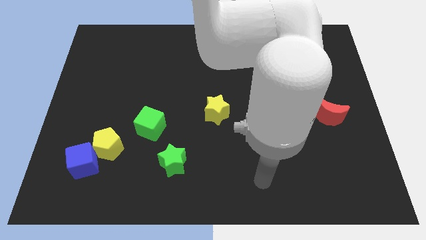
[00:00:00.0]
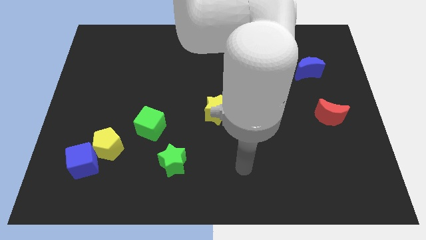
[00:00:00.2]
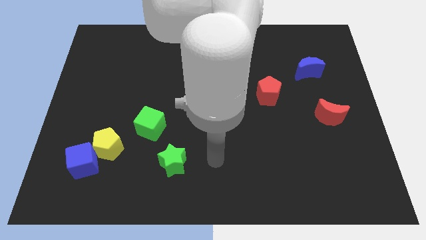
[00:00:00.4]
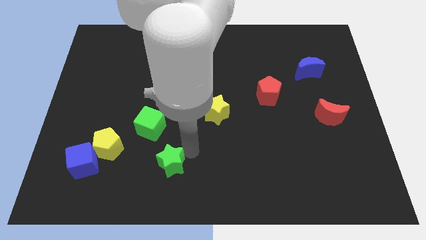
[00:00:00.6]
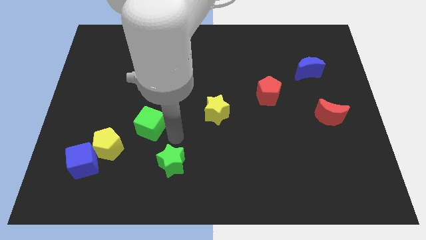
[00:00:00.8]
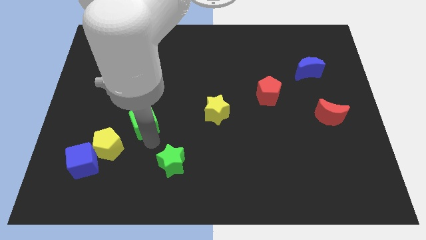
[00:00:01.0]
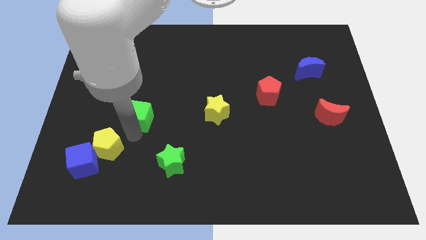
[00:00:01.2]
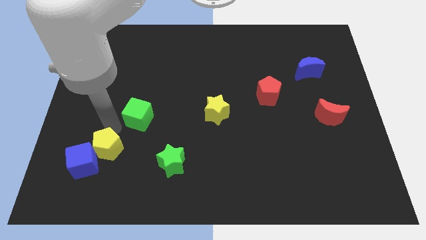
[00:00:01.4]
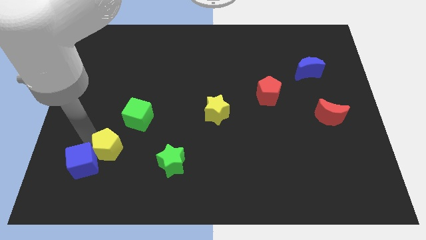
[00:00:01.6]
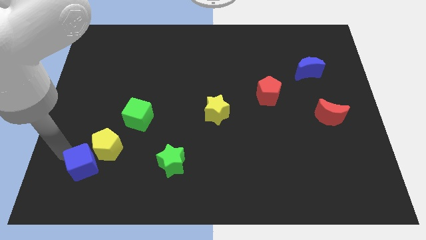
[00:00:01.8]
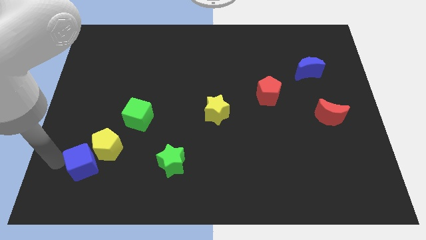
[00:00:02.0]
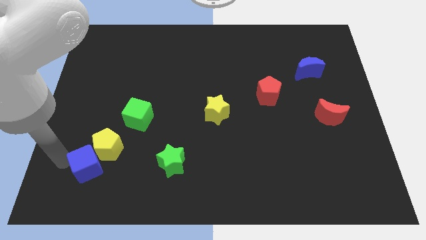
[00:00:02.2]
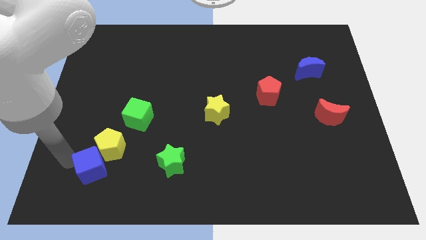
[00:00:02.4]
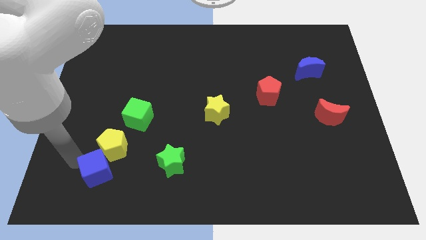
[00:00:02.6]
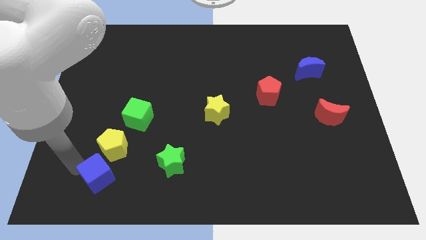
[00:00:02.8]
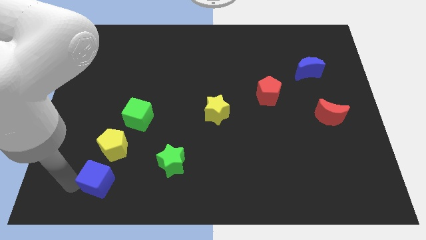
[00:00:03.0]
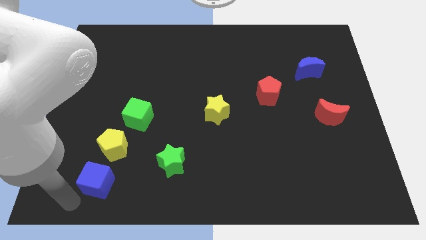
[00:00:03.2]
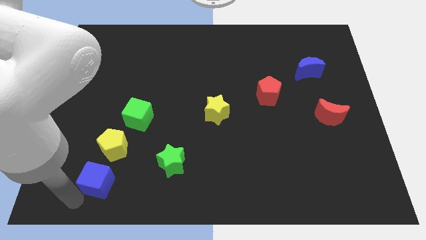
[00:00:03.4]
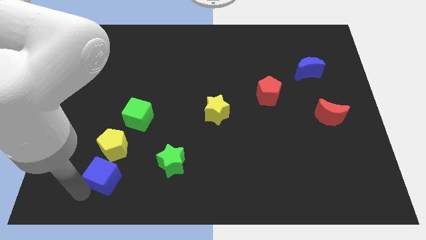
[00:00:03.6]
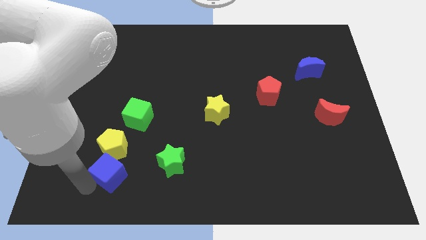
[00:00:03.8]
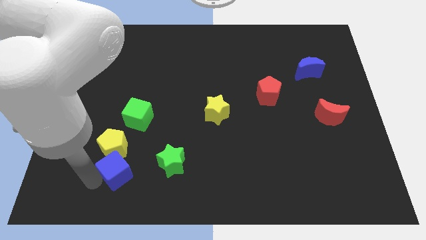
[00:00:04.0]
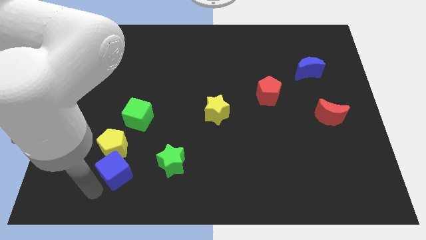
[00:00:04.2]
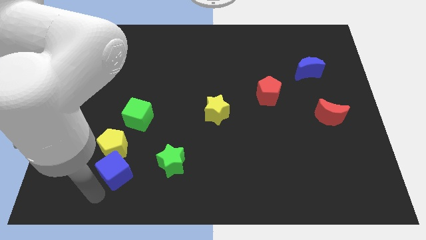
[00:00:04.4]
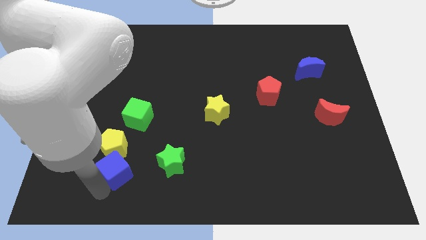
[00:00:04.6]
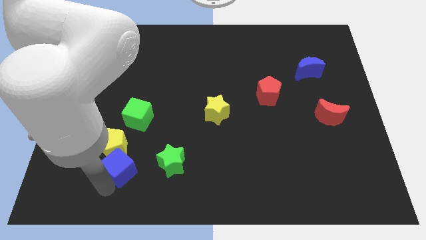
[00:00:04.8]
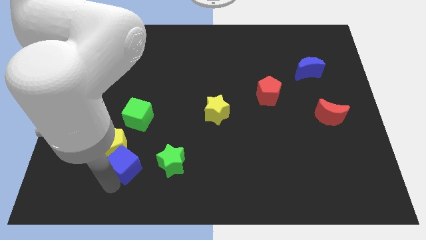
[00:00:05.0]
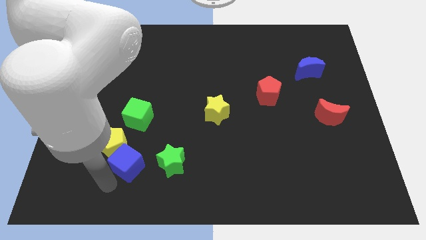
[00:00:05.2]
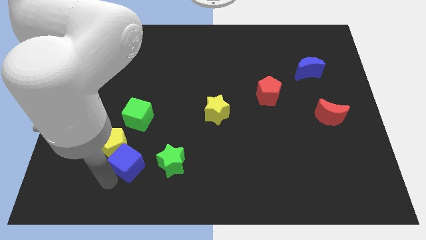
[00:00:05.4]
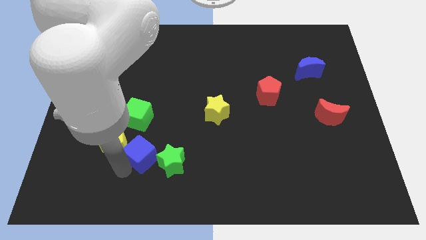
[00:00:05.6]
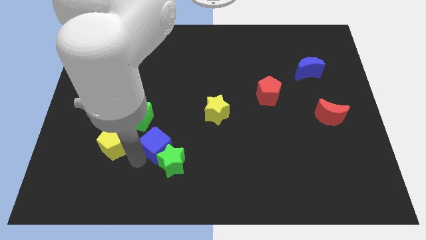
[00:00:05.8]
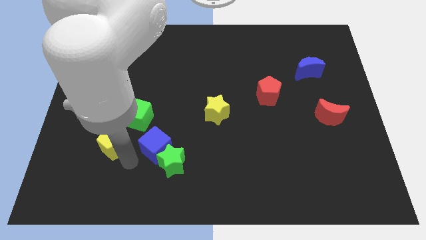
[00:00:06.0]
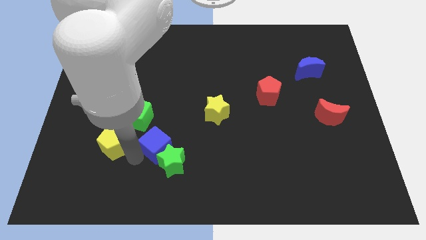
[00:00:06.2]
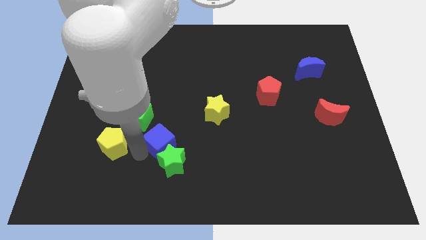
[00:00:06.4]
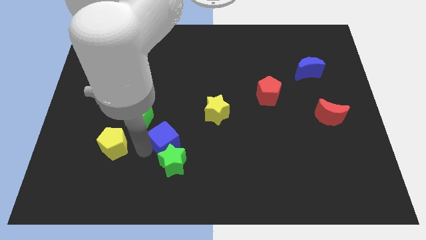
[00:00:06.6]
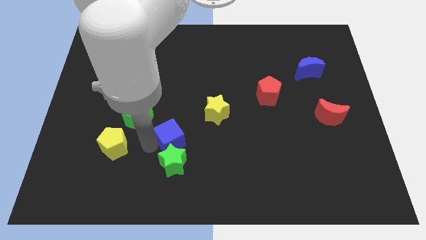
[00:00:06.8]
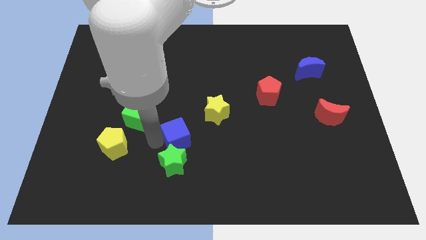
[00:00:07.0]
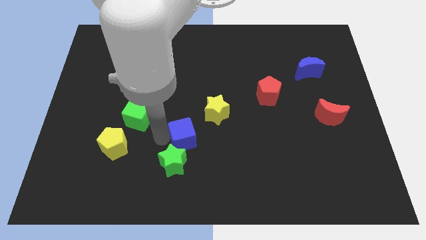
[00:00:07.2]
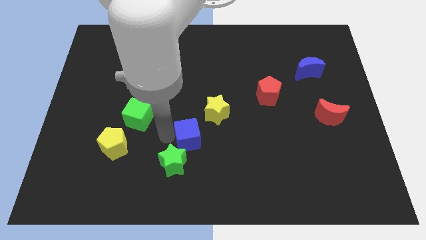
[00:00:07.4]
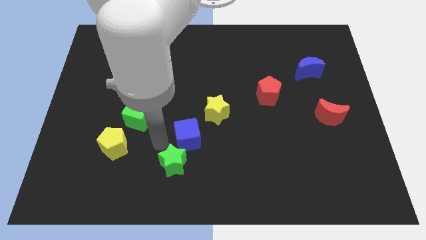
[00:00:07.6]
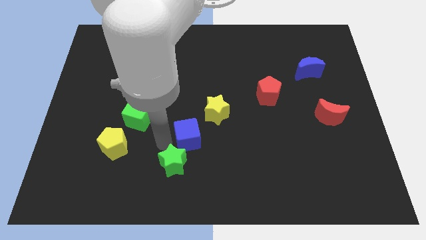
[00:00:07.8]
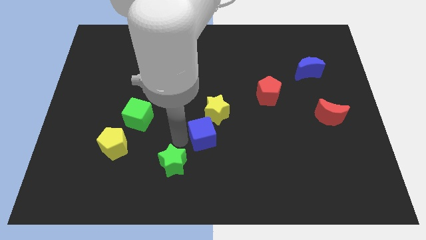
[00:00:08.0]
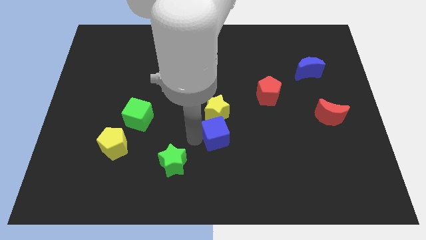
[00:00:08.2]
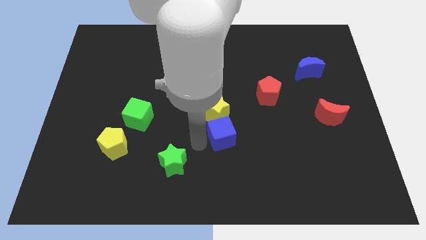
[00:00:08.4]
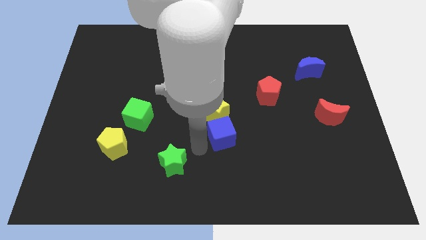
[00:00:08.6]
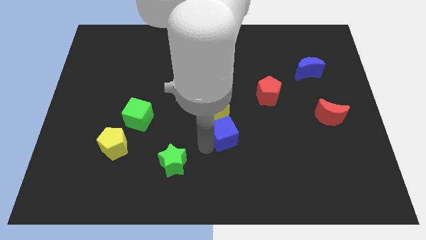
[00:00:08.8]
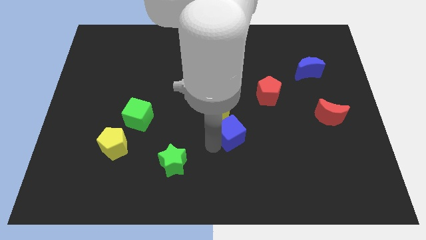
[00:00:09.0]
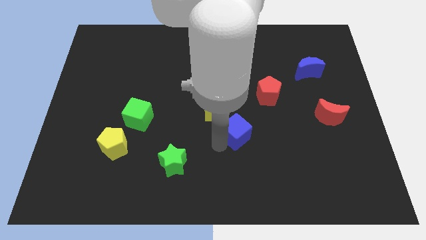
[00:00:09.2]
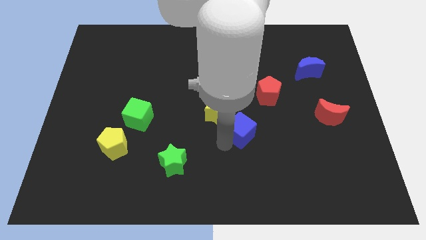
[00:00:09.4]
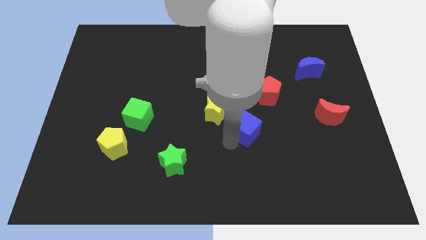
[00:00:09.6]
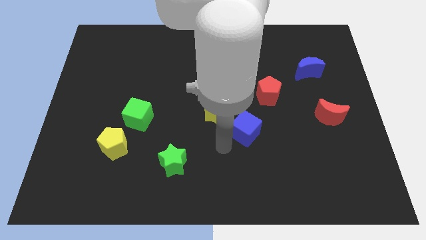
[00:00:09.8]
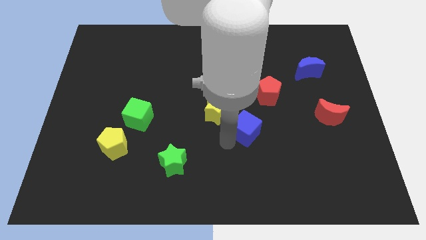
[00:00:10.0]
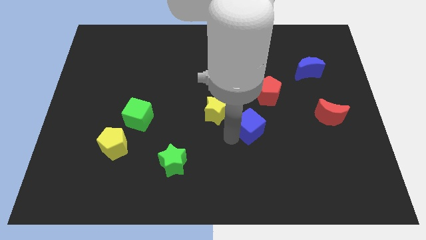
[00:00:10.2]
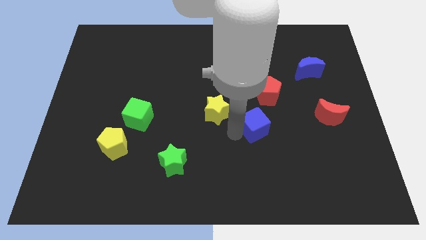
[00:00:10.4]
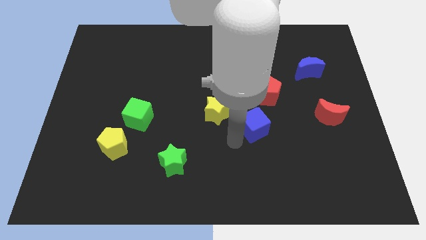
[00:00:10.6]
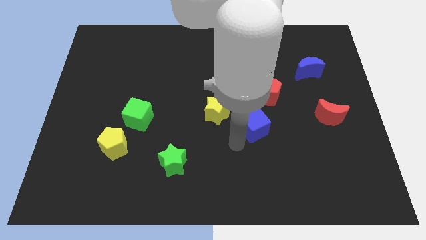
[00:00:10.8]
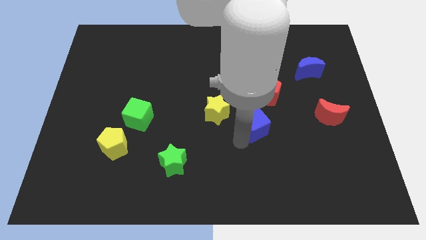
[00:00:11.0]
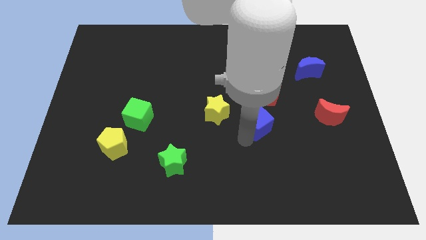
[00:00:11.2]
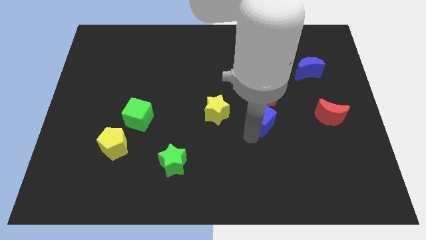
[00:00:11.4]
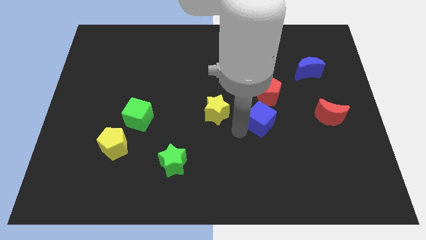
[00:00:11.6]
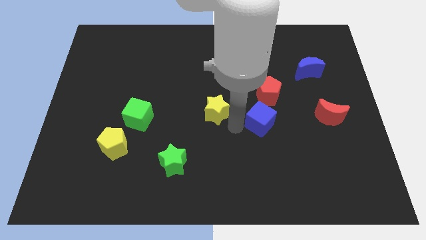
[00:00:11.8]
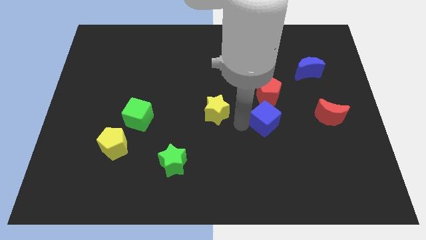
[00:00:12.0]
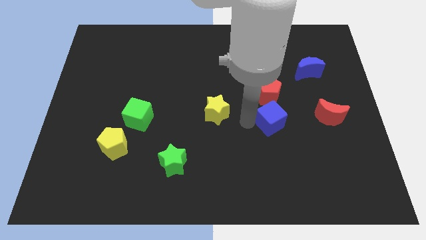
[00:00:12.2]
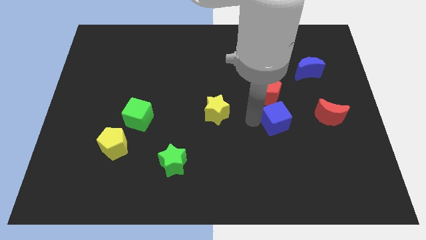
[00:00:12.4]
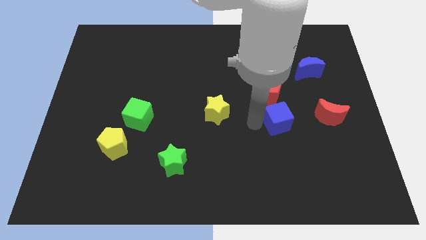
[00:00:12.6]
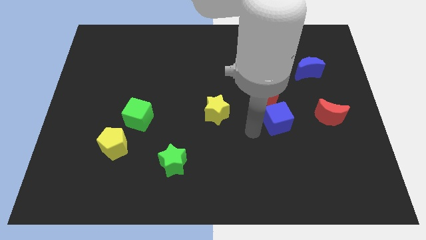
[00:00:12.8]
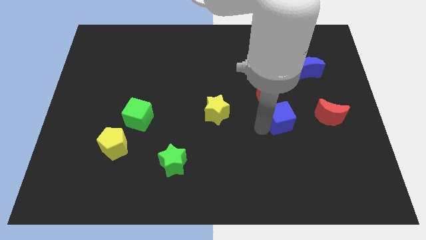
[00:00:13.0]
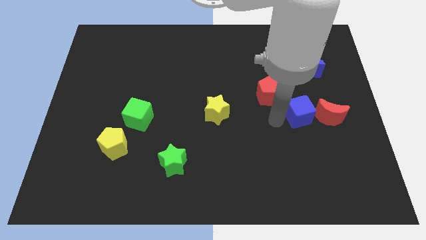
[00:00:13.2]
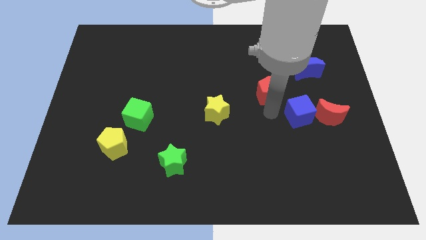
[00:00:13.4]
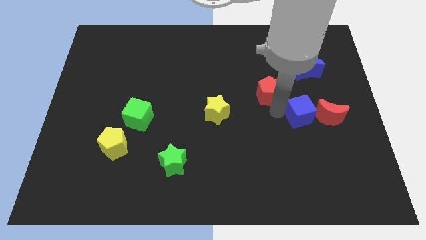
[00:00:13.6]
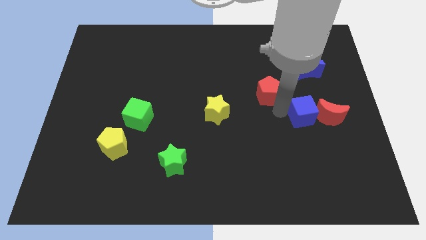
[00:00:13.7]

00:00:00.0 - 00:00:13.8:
put the blue cube to the red moon

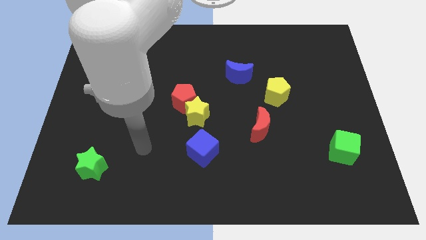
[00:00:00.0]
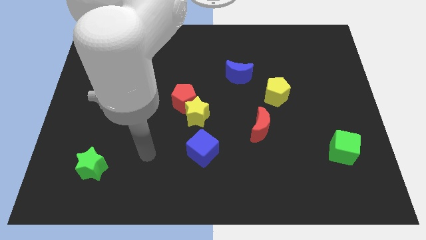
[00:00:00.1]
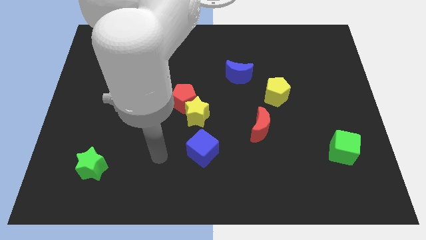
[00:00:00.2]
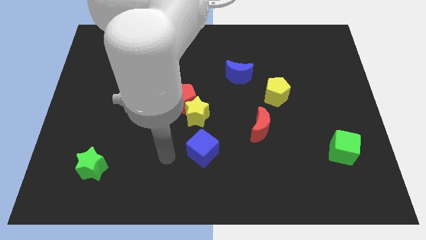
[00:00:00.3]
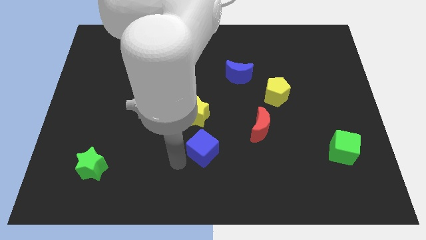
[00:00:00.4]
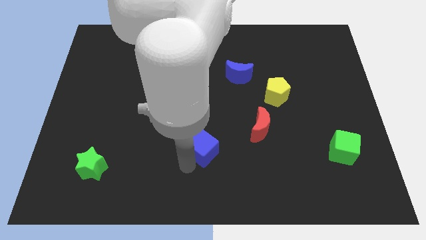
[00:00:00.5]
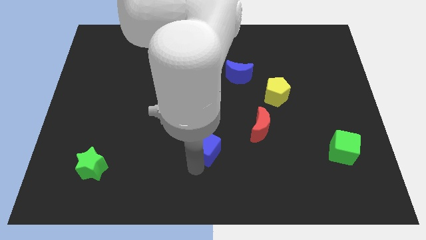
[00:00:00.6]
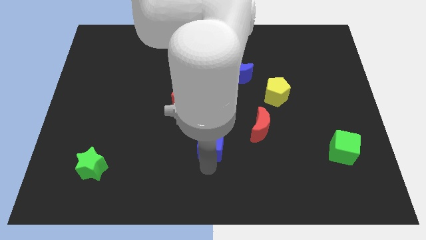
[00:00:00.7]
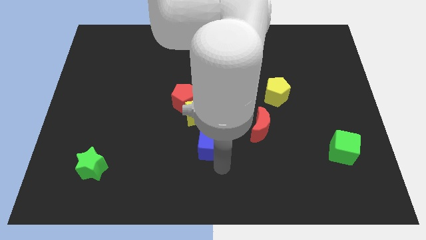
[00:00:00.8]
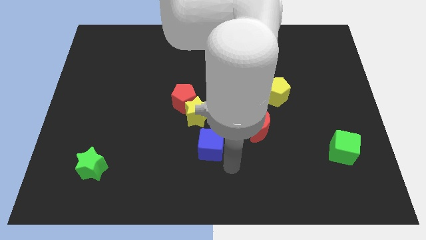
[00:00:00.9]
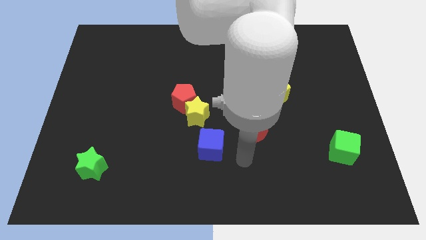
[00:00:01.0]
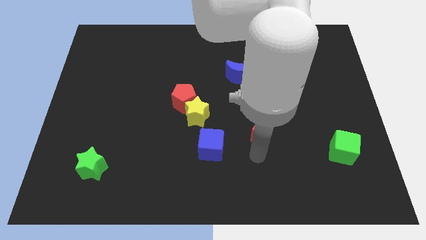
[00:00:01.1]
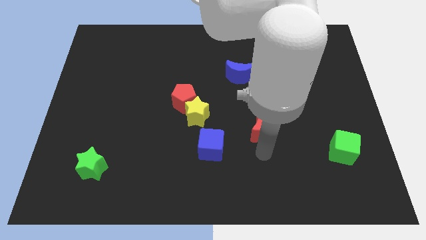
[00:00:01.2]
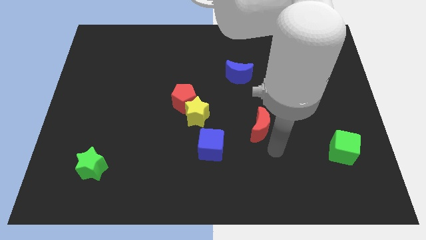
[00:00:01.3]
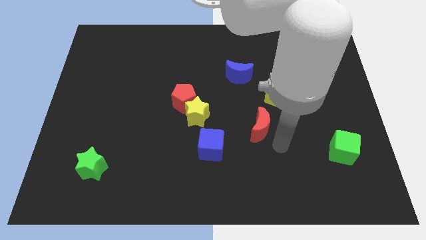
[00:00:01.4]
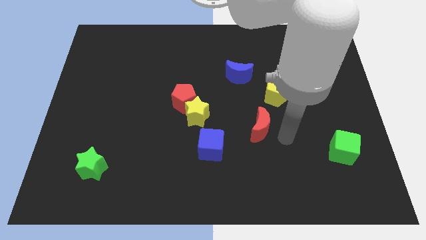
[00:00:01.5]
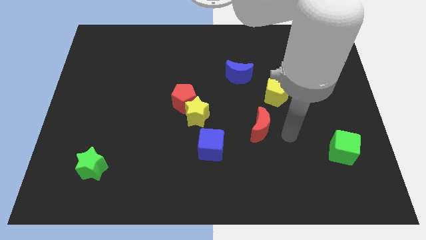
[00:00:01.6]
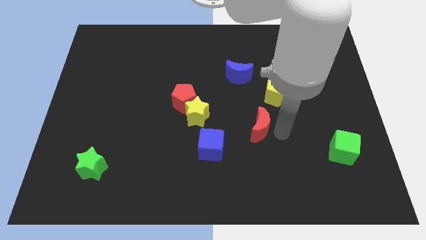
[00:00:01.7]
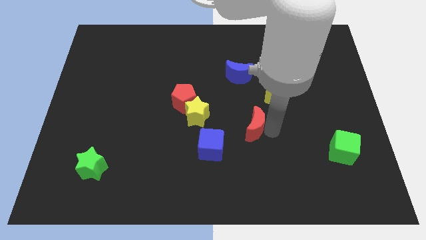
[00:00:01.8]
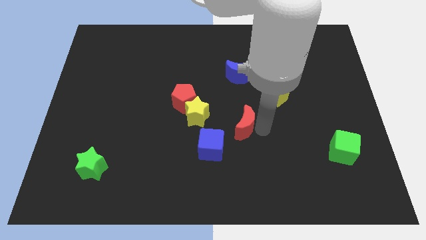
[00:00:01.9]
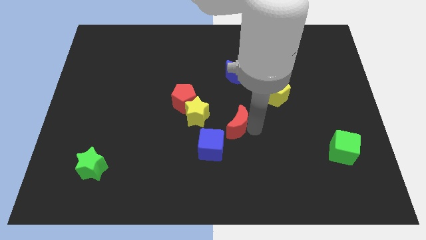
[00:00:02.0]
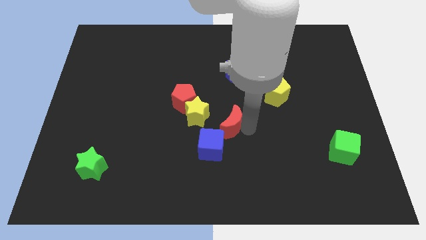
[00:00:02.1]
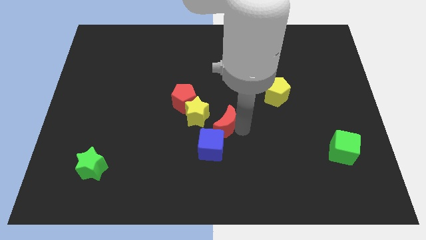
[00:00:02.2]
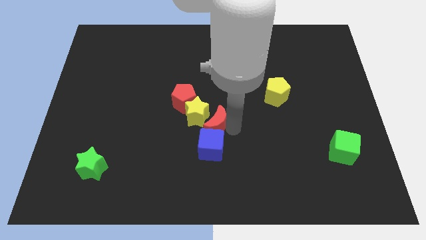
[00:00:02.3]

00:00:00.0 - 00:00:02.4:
put the red moon towards the yellow star
